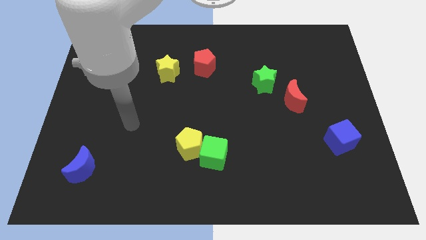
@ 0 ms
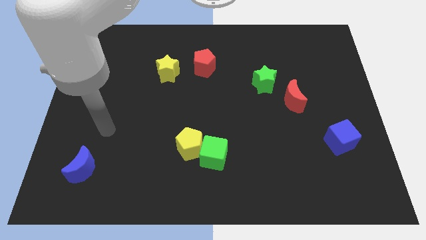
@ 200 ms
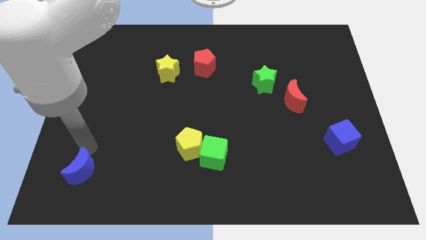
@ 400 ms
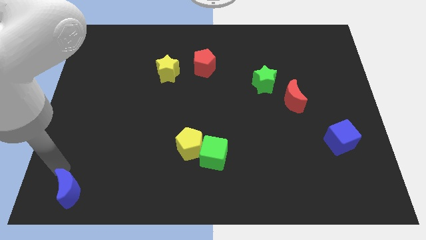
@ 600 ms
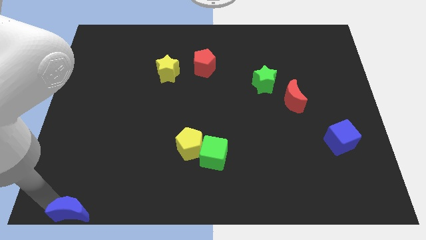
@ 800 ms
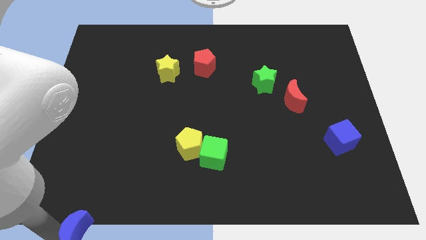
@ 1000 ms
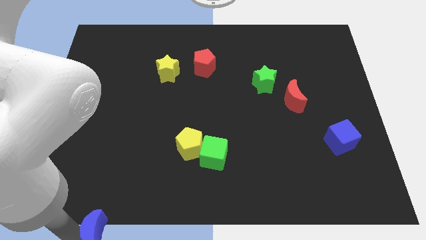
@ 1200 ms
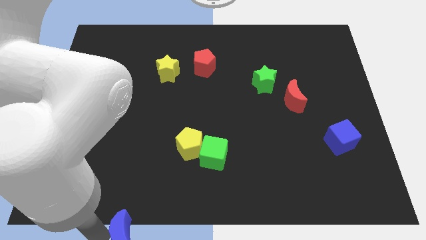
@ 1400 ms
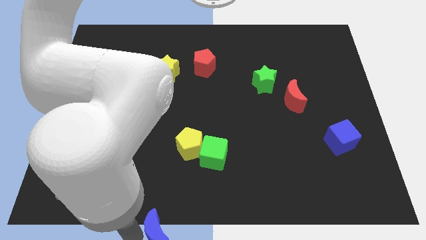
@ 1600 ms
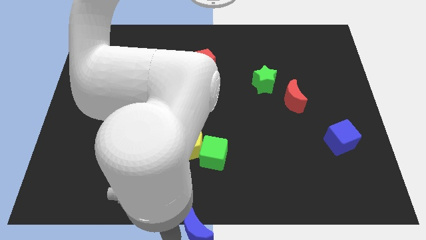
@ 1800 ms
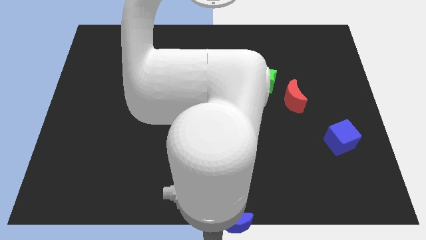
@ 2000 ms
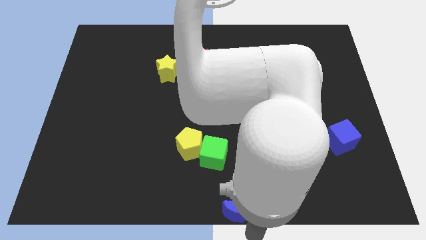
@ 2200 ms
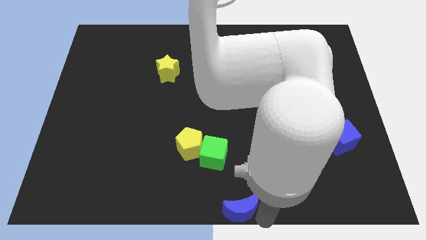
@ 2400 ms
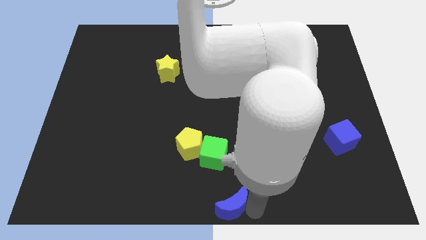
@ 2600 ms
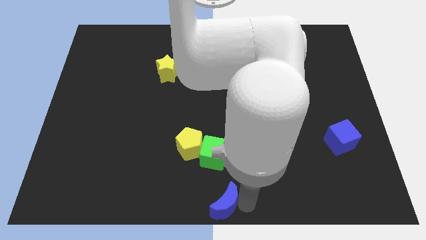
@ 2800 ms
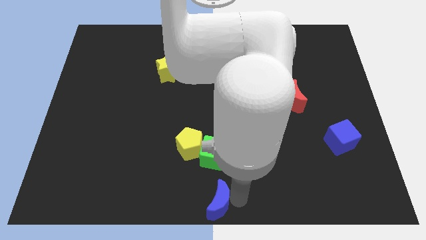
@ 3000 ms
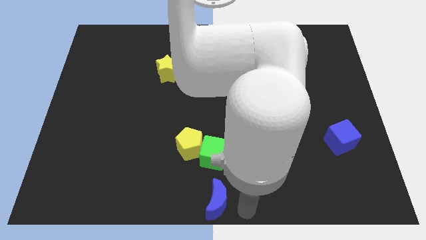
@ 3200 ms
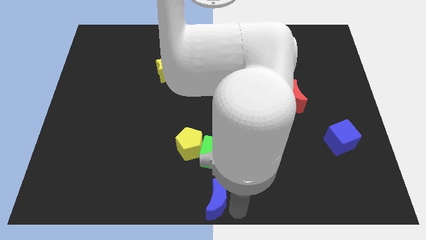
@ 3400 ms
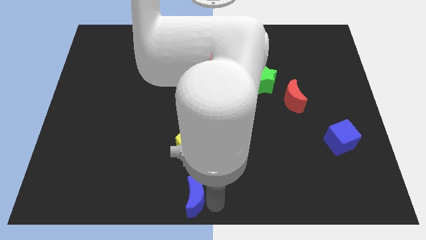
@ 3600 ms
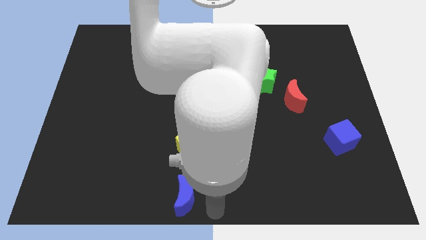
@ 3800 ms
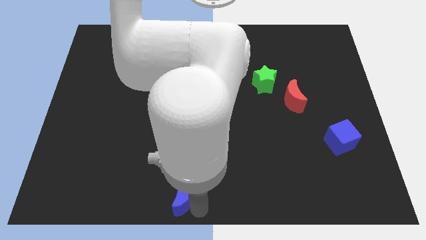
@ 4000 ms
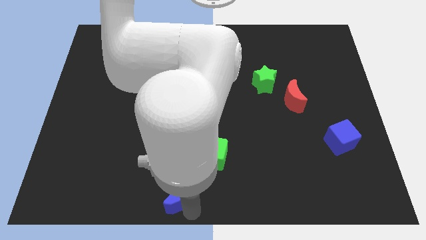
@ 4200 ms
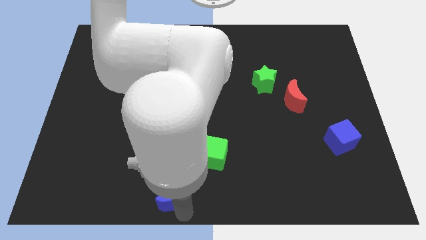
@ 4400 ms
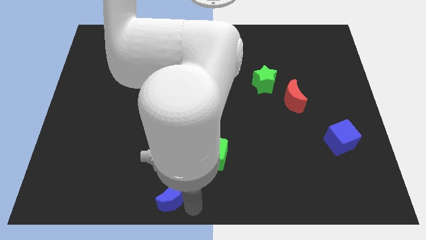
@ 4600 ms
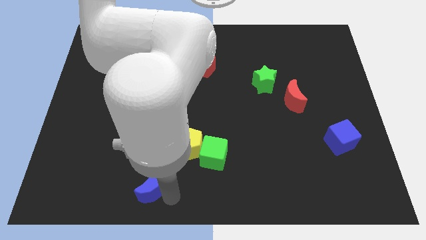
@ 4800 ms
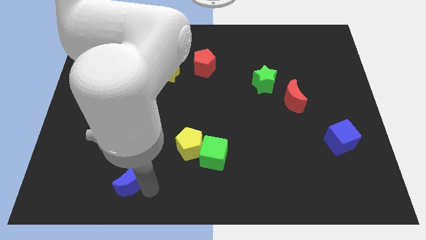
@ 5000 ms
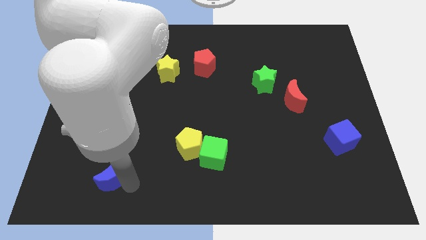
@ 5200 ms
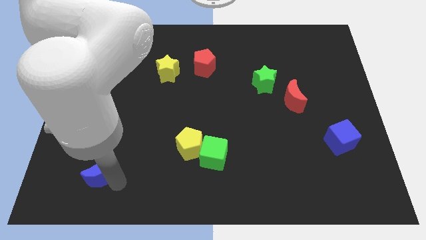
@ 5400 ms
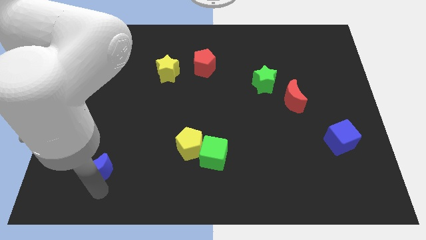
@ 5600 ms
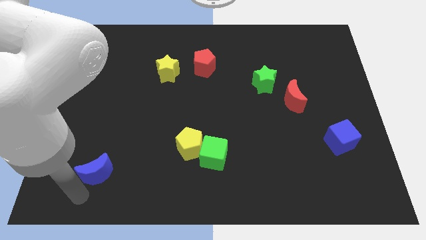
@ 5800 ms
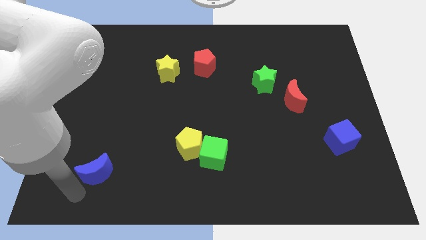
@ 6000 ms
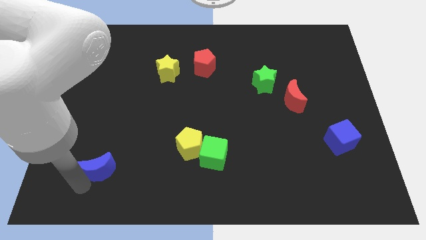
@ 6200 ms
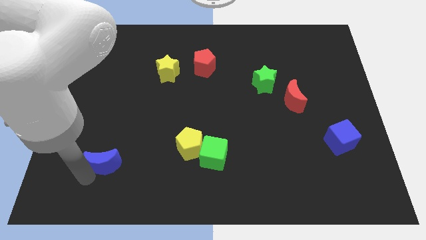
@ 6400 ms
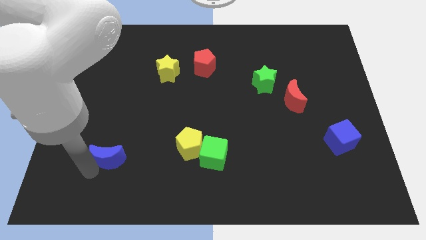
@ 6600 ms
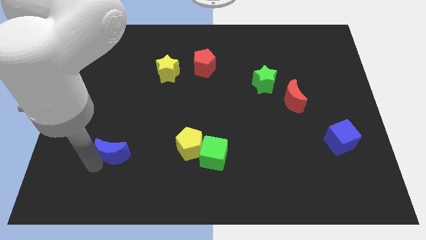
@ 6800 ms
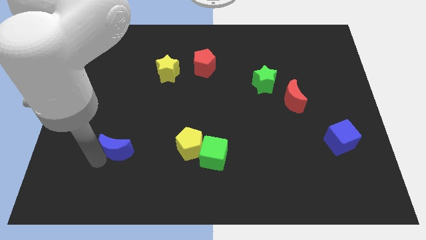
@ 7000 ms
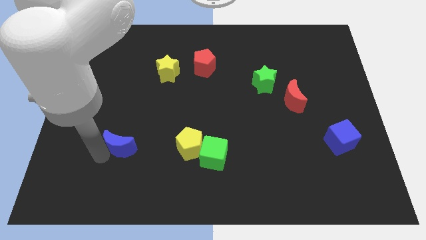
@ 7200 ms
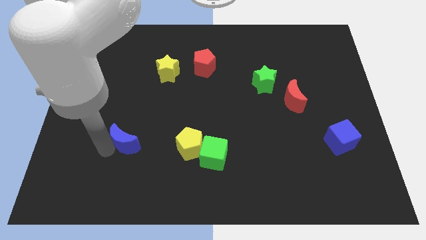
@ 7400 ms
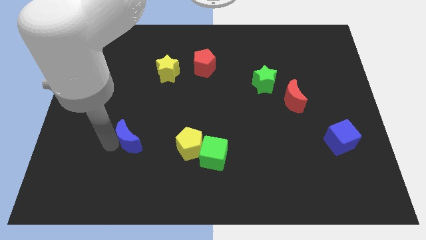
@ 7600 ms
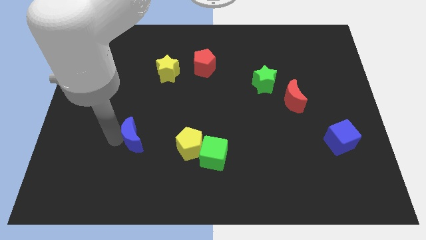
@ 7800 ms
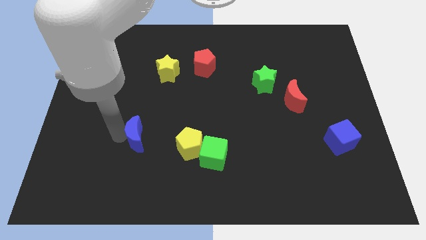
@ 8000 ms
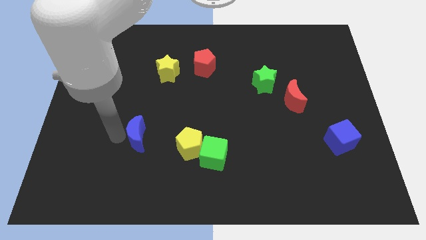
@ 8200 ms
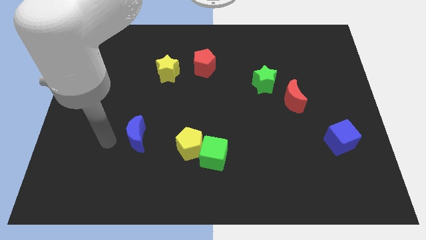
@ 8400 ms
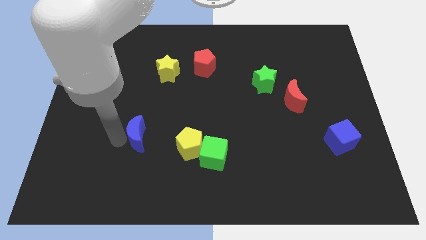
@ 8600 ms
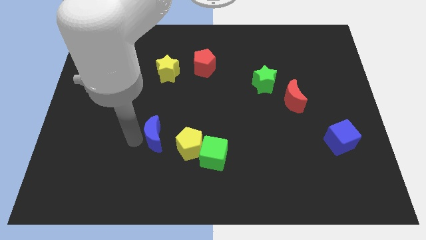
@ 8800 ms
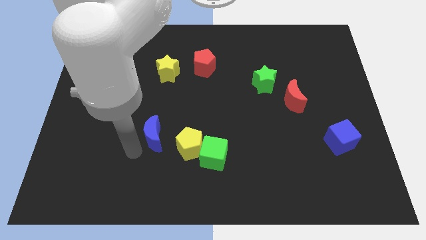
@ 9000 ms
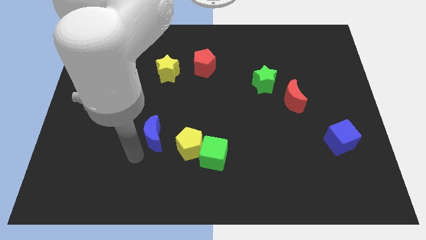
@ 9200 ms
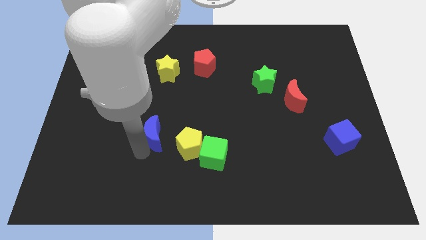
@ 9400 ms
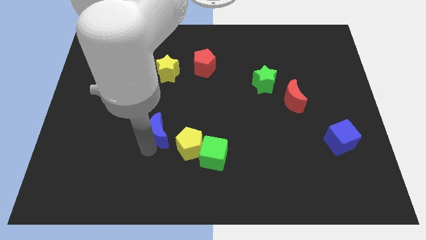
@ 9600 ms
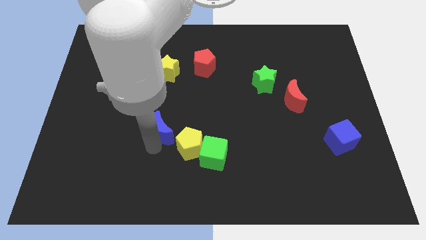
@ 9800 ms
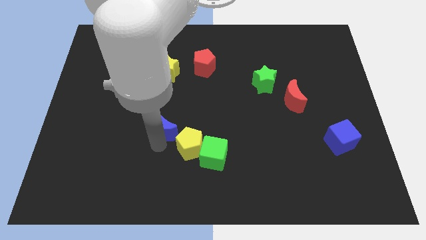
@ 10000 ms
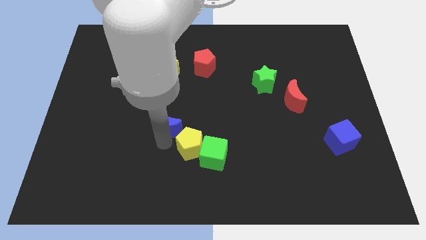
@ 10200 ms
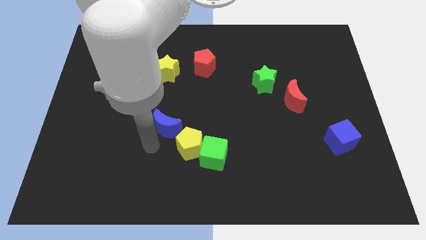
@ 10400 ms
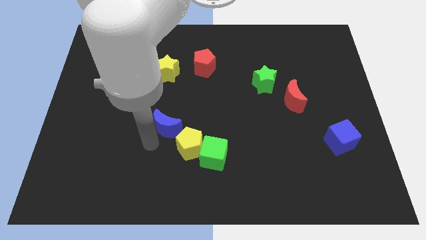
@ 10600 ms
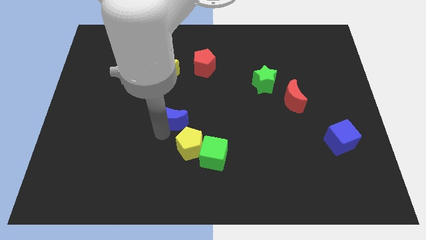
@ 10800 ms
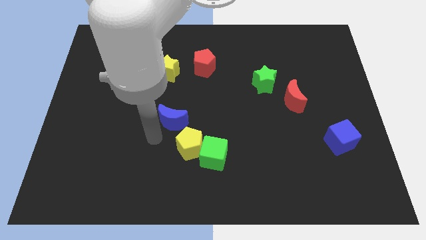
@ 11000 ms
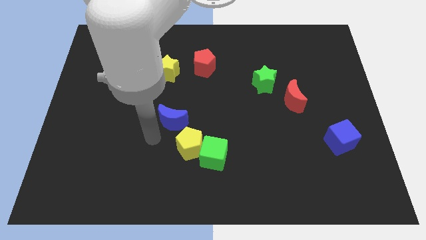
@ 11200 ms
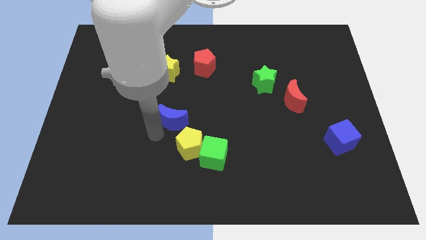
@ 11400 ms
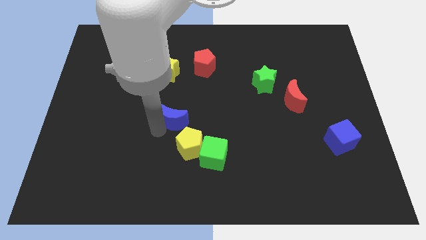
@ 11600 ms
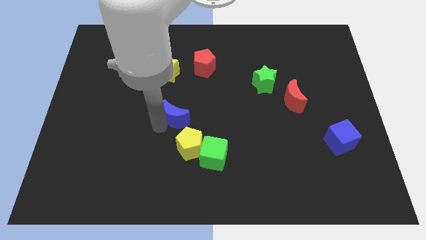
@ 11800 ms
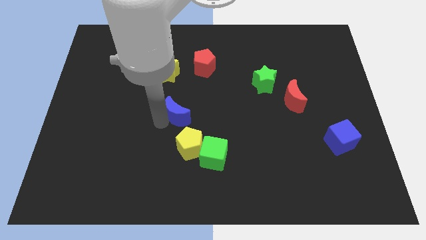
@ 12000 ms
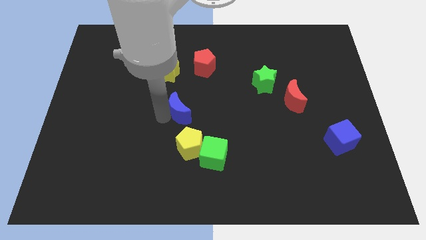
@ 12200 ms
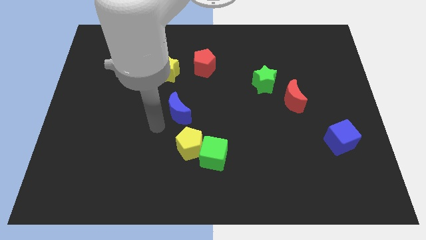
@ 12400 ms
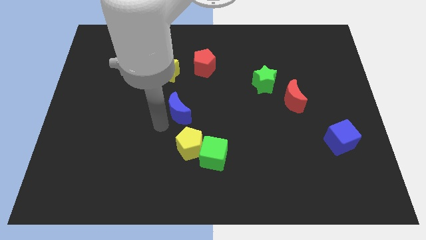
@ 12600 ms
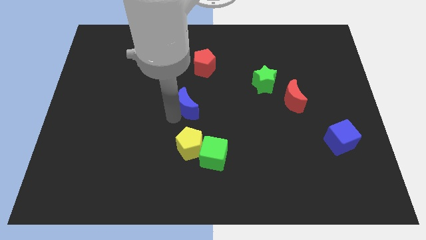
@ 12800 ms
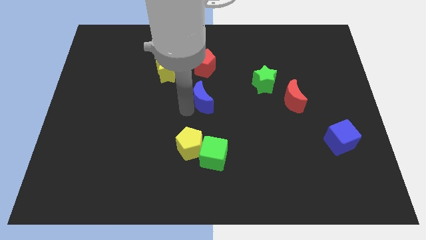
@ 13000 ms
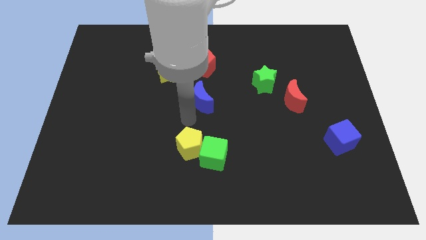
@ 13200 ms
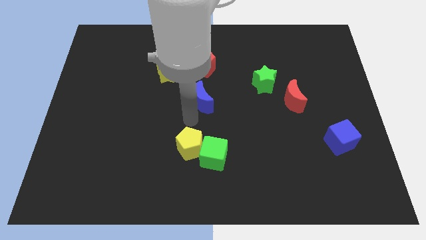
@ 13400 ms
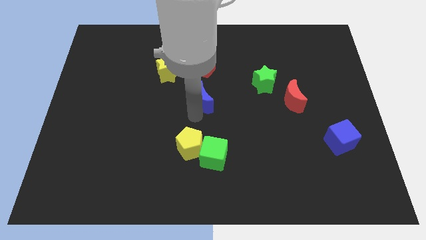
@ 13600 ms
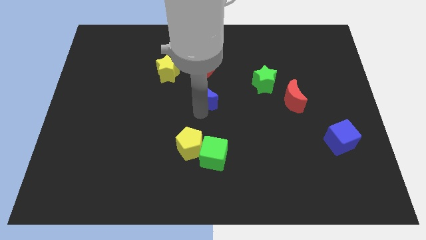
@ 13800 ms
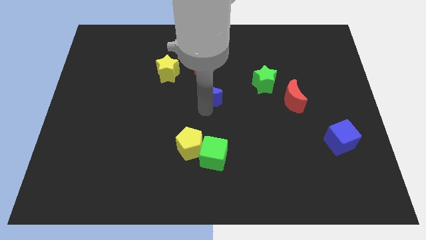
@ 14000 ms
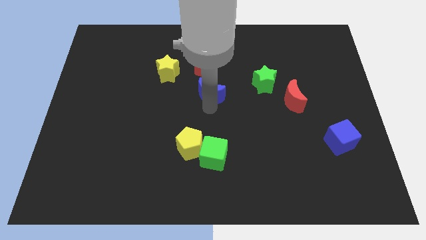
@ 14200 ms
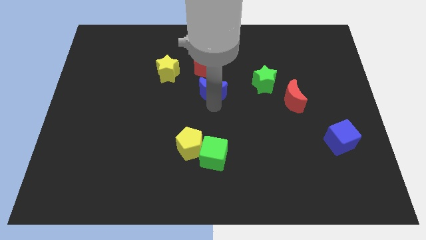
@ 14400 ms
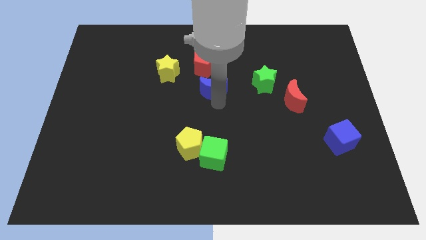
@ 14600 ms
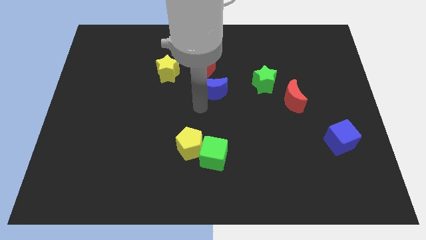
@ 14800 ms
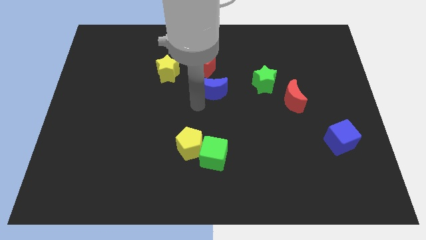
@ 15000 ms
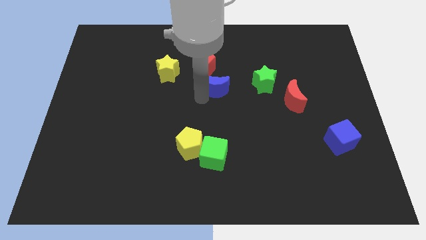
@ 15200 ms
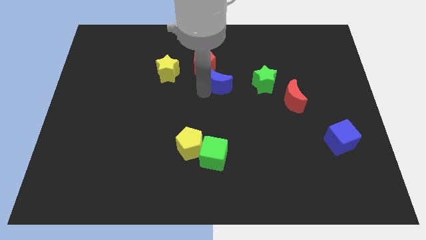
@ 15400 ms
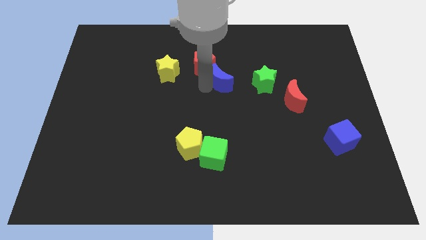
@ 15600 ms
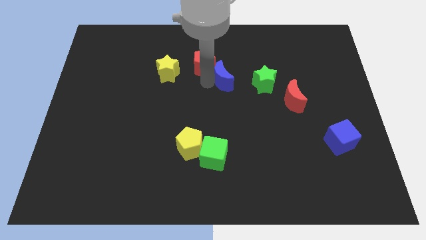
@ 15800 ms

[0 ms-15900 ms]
slide the blue moon to the right side of the red pentagon
